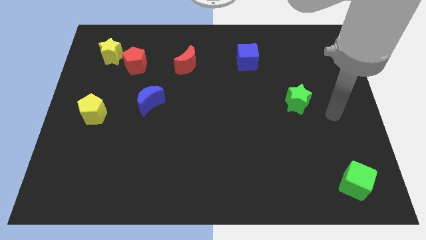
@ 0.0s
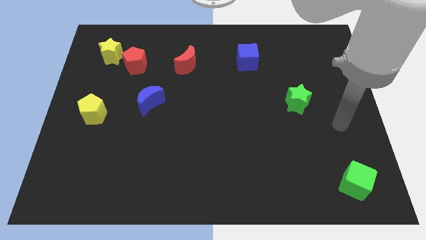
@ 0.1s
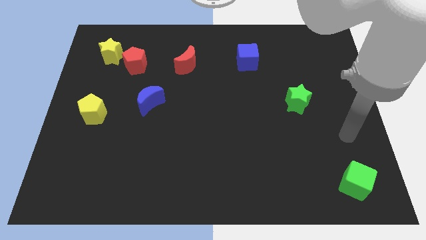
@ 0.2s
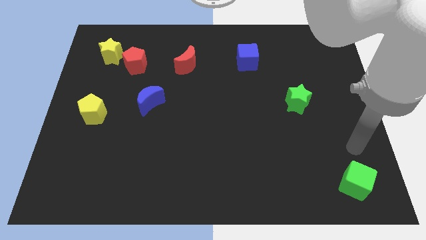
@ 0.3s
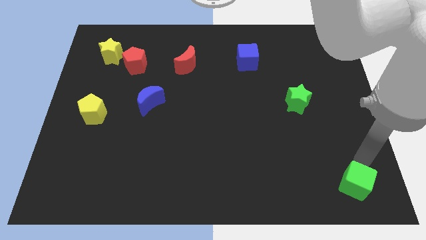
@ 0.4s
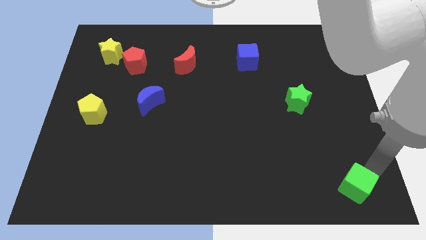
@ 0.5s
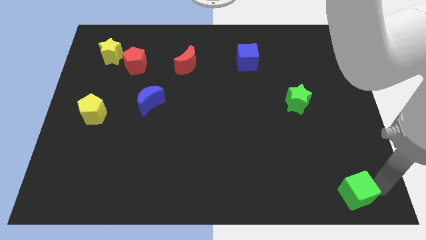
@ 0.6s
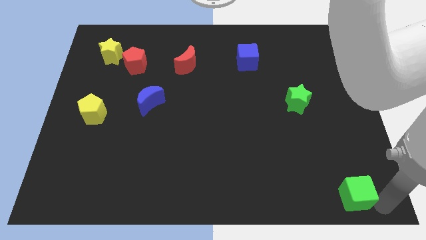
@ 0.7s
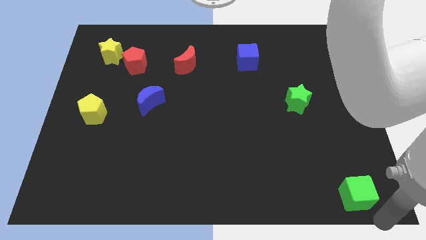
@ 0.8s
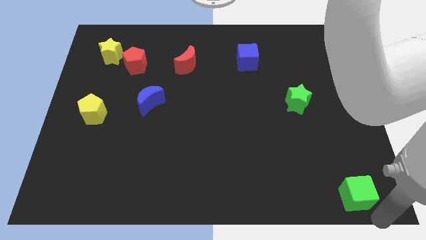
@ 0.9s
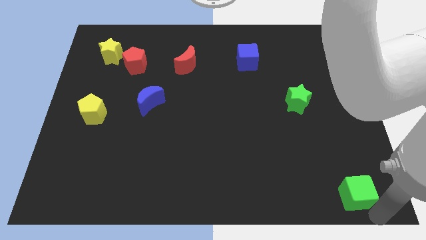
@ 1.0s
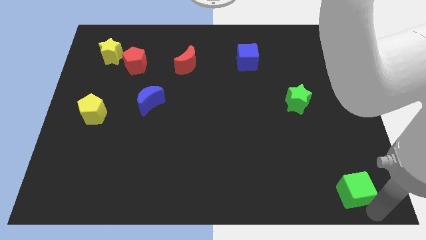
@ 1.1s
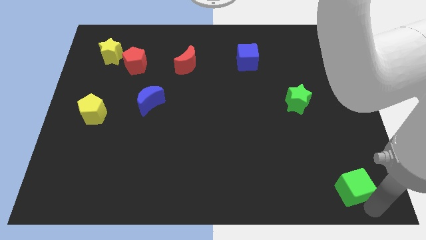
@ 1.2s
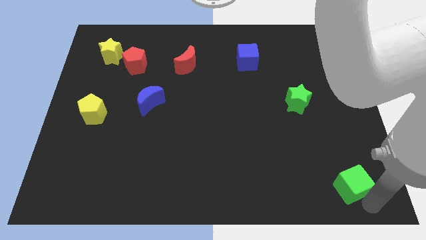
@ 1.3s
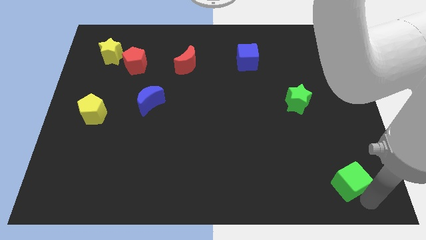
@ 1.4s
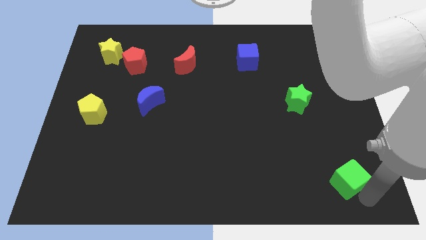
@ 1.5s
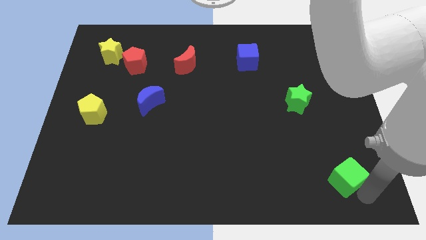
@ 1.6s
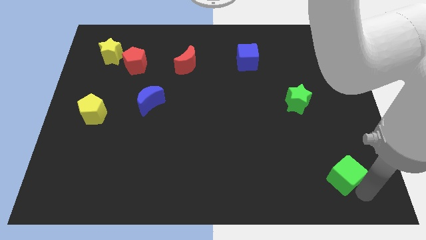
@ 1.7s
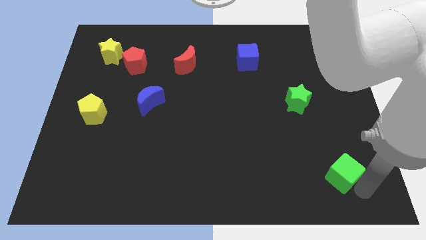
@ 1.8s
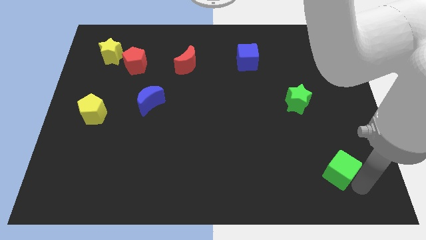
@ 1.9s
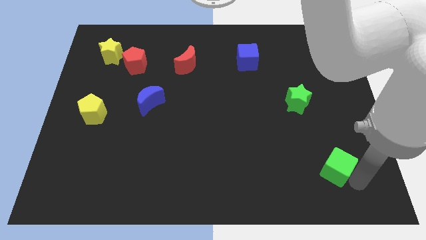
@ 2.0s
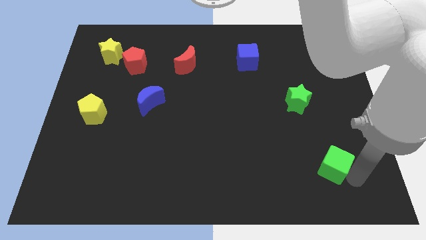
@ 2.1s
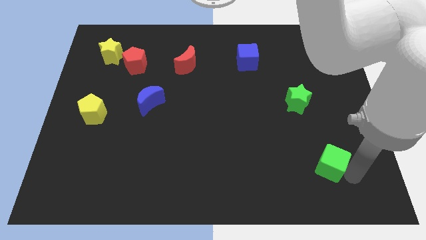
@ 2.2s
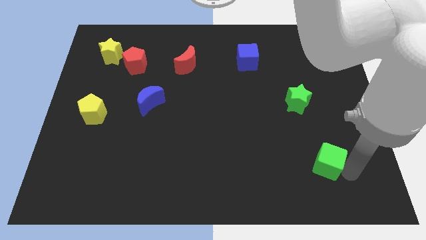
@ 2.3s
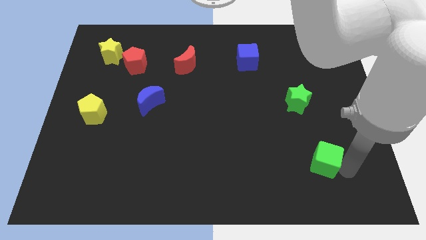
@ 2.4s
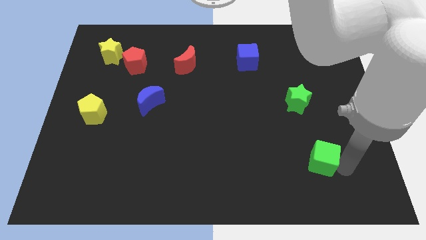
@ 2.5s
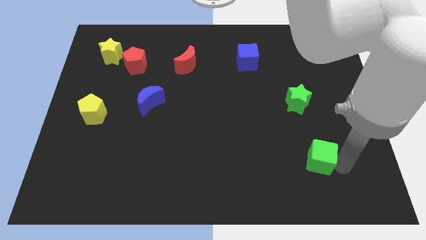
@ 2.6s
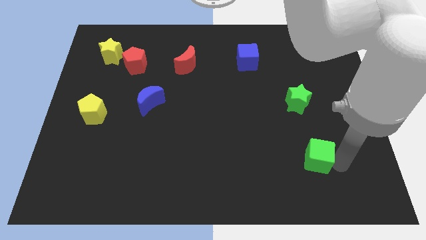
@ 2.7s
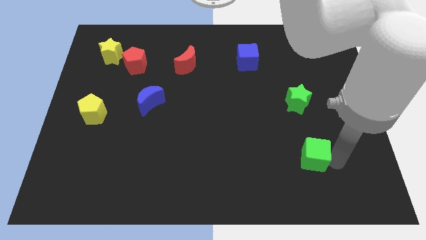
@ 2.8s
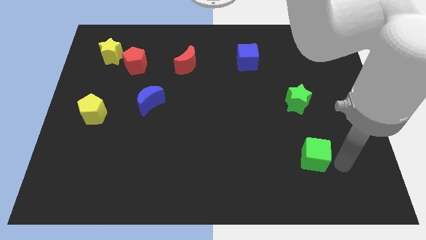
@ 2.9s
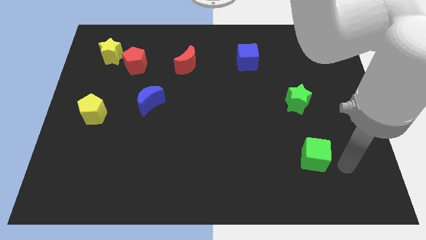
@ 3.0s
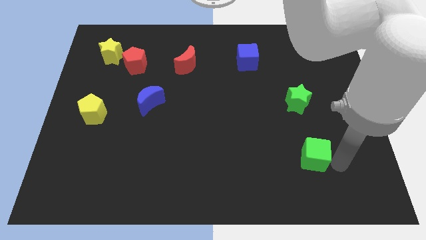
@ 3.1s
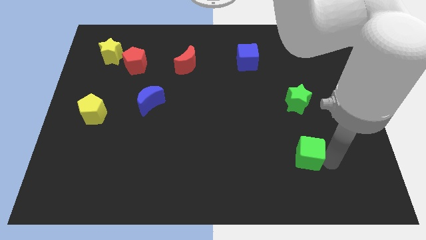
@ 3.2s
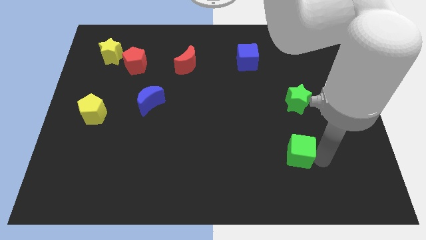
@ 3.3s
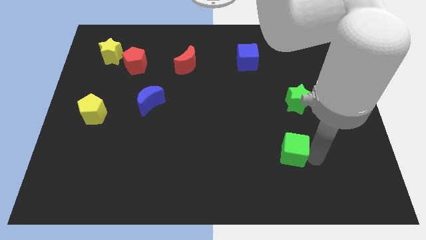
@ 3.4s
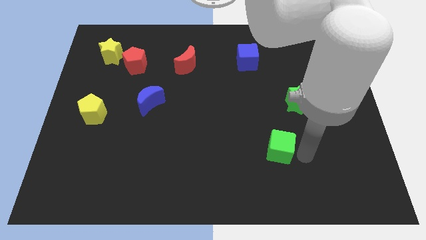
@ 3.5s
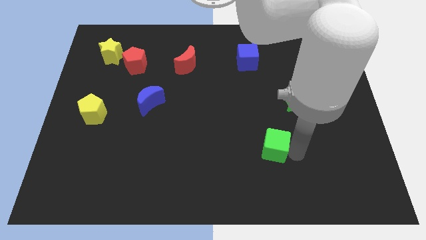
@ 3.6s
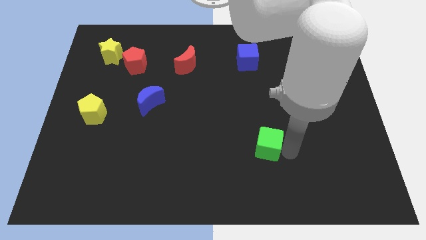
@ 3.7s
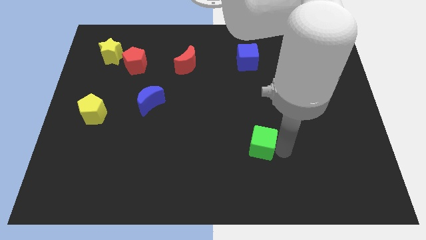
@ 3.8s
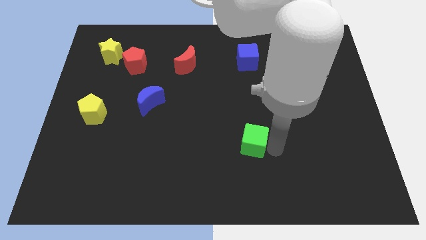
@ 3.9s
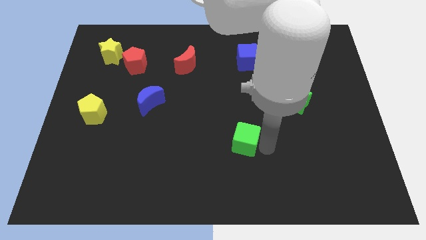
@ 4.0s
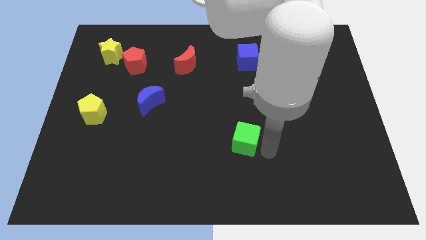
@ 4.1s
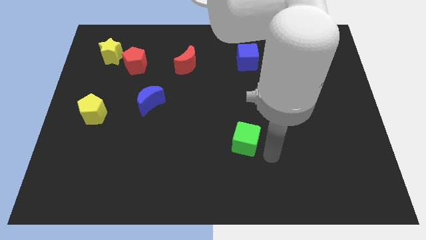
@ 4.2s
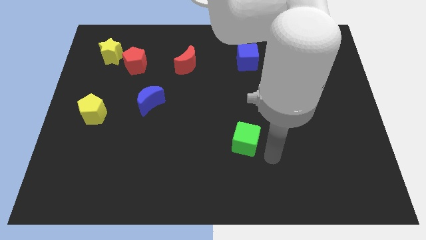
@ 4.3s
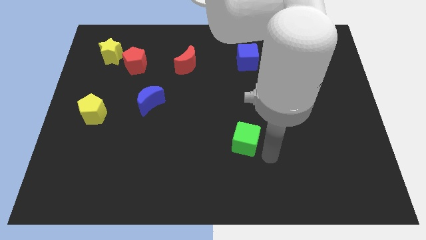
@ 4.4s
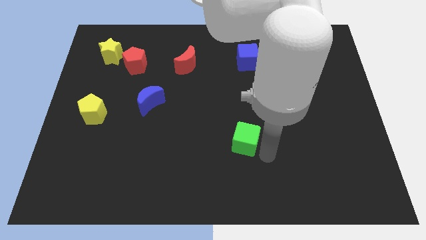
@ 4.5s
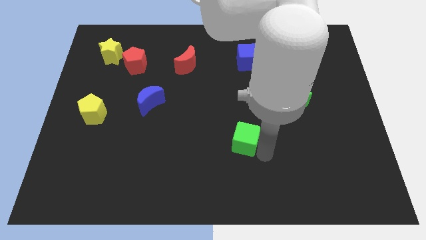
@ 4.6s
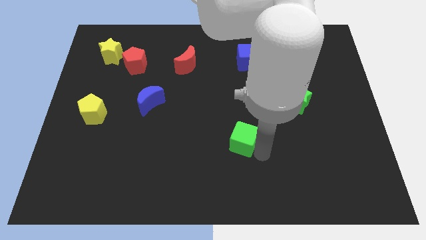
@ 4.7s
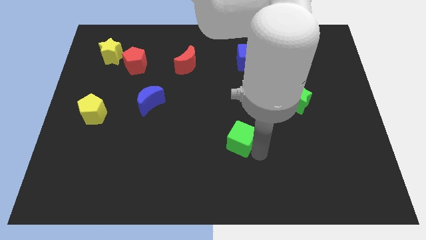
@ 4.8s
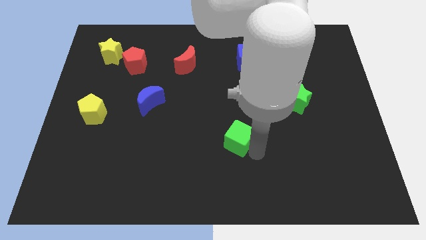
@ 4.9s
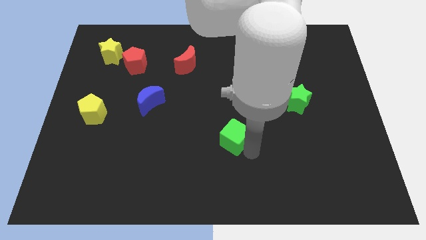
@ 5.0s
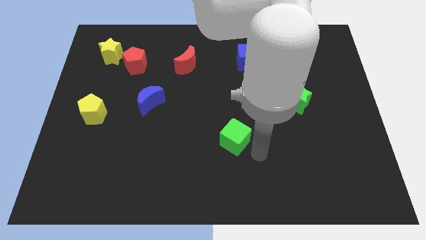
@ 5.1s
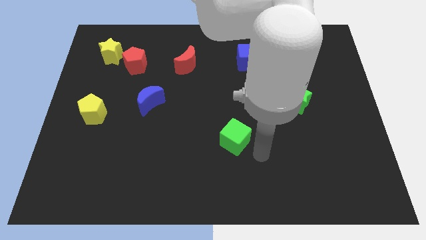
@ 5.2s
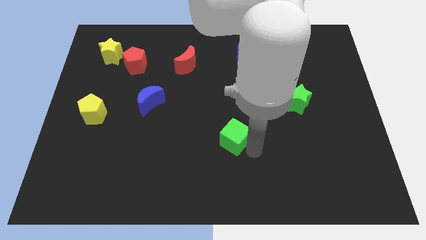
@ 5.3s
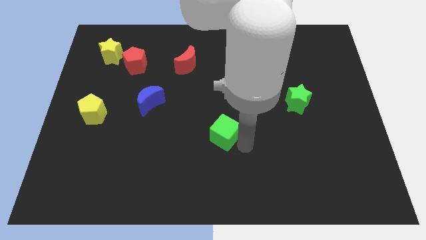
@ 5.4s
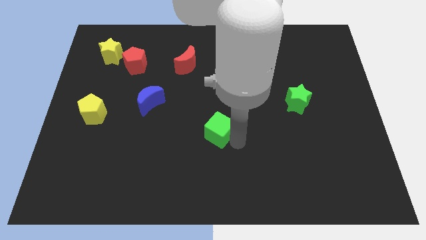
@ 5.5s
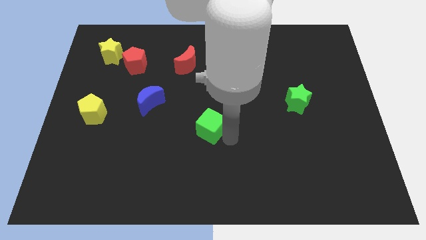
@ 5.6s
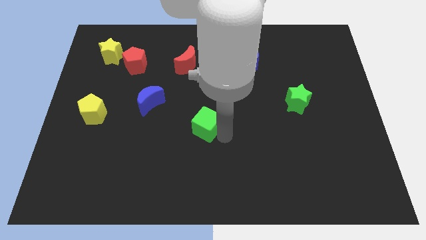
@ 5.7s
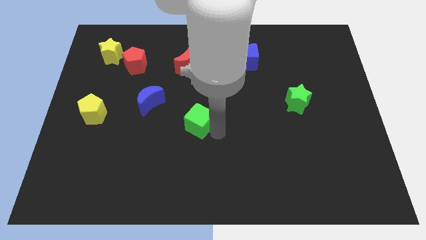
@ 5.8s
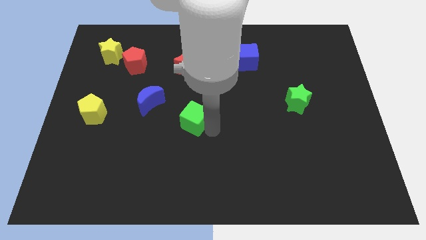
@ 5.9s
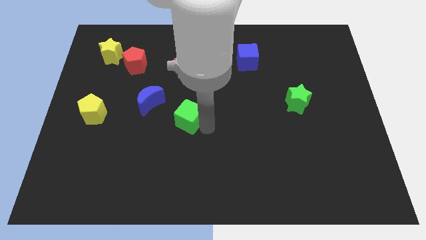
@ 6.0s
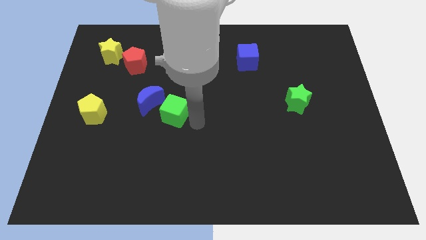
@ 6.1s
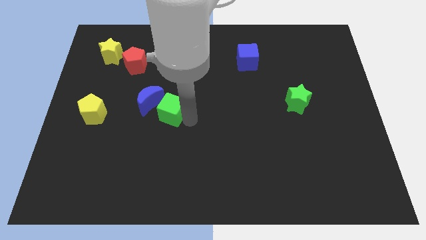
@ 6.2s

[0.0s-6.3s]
push the green cube towards the blue moon

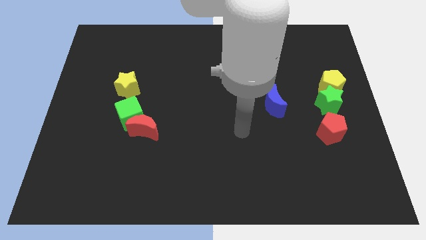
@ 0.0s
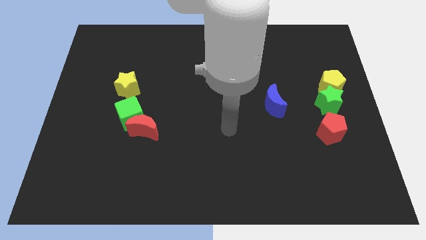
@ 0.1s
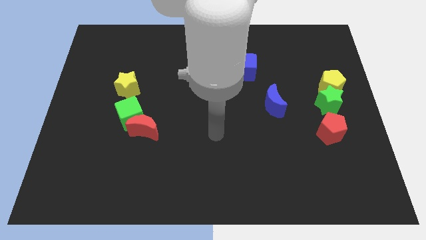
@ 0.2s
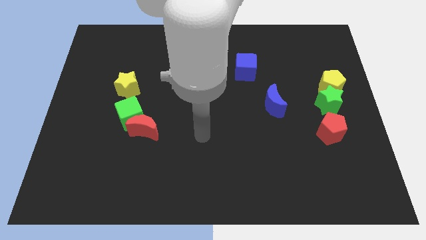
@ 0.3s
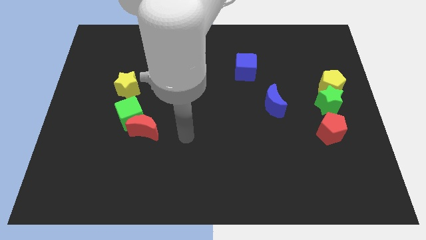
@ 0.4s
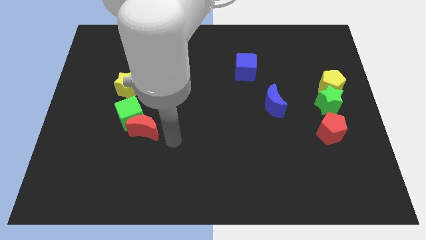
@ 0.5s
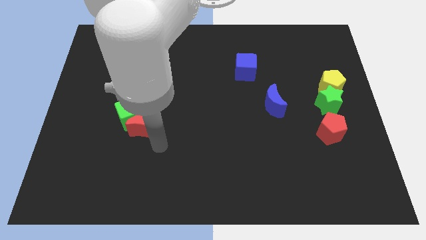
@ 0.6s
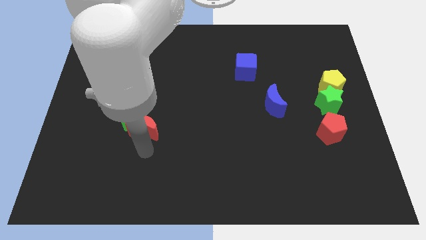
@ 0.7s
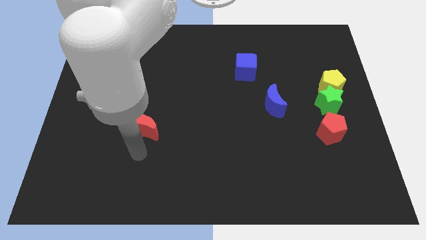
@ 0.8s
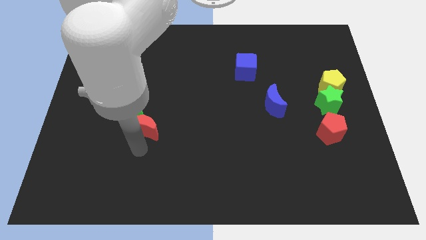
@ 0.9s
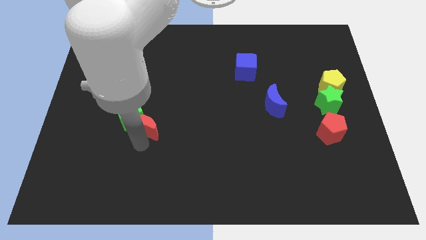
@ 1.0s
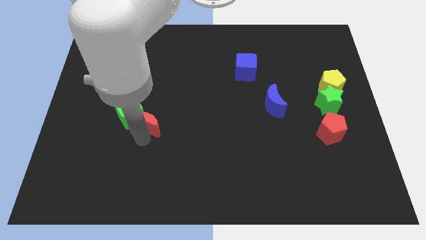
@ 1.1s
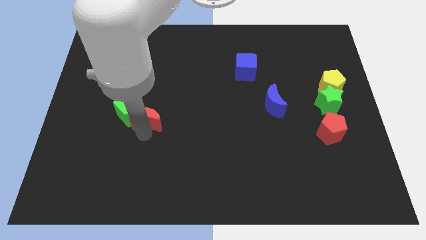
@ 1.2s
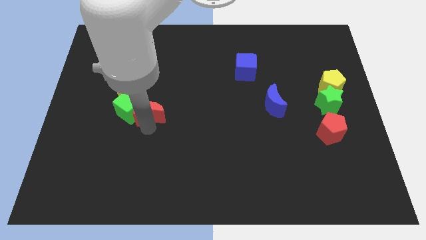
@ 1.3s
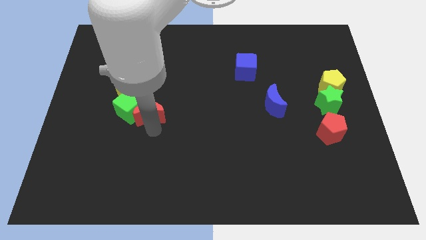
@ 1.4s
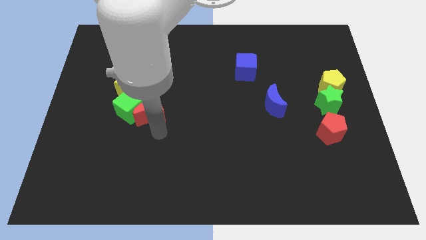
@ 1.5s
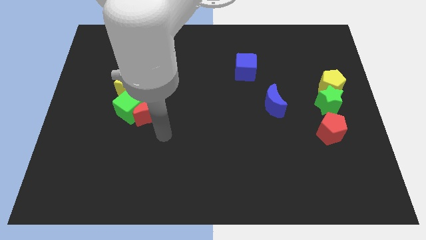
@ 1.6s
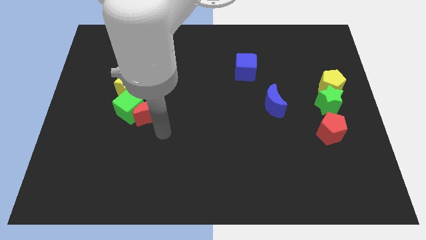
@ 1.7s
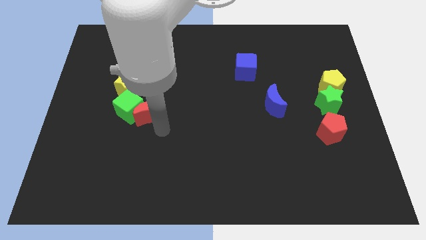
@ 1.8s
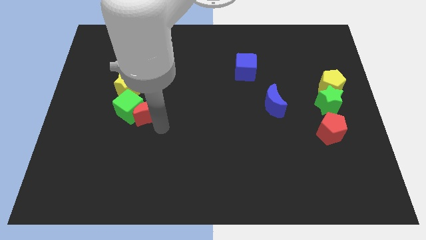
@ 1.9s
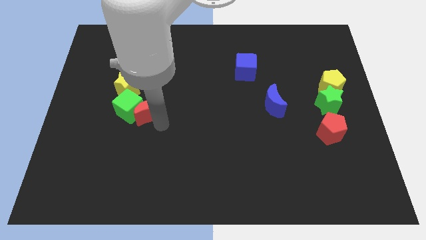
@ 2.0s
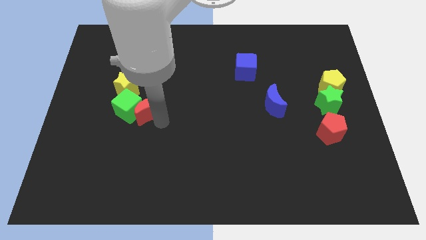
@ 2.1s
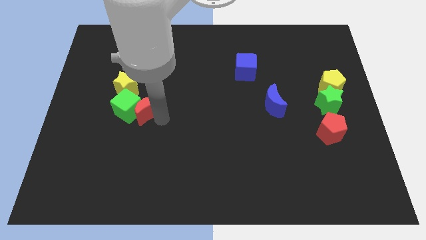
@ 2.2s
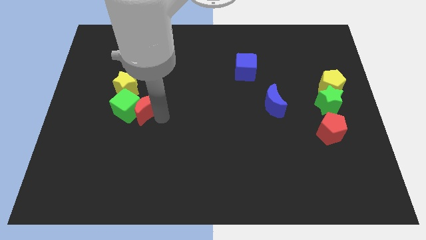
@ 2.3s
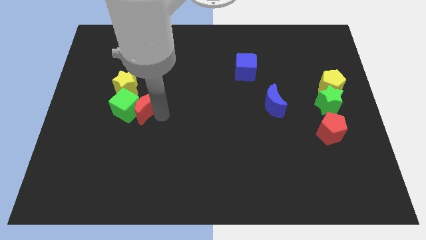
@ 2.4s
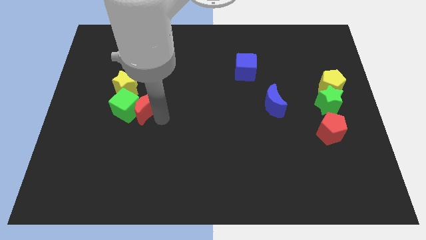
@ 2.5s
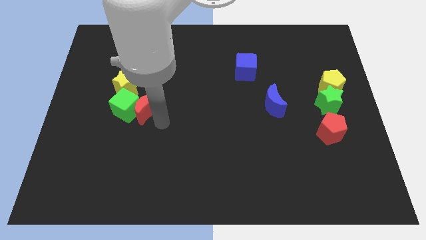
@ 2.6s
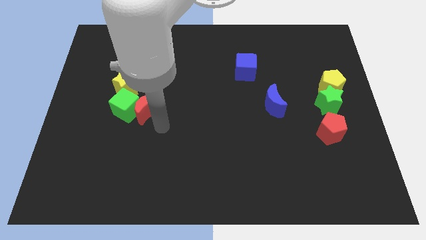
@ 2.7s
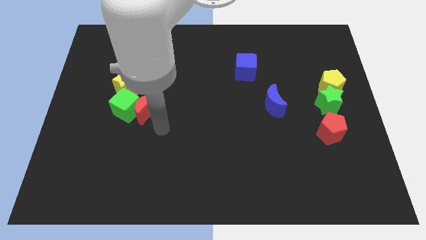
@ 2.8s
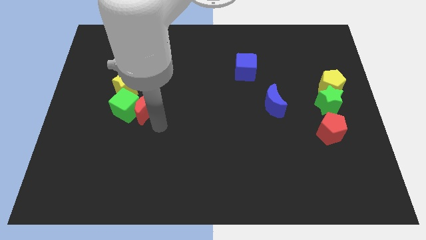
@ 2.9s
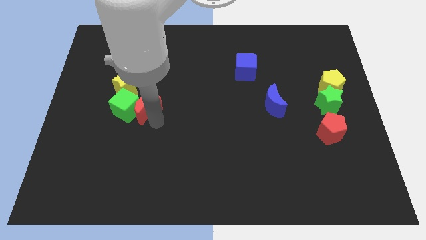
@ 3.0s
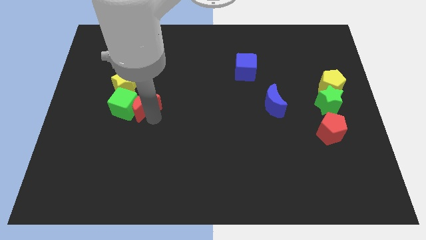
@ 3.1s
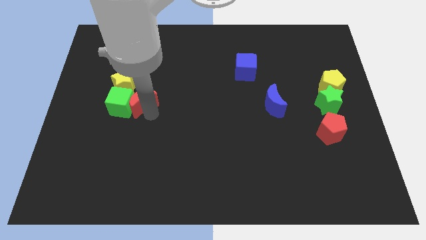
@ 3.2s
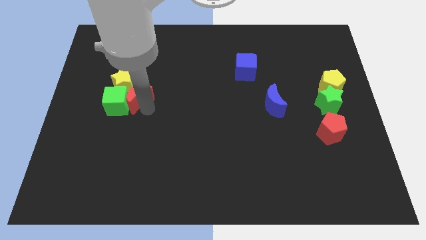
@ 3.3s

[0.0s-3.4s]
push the red moon towards the yellow star
